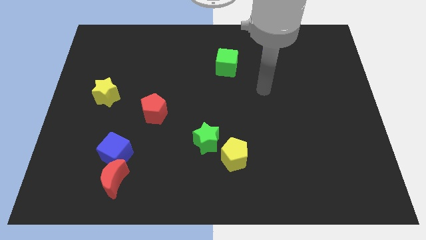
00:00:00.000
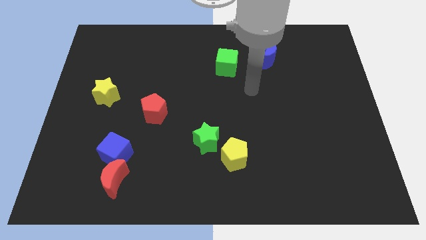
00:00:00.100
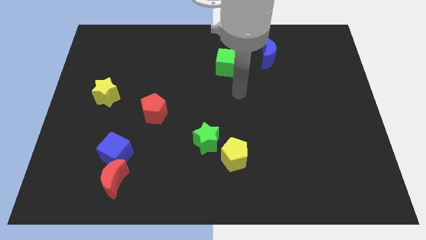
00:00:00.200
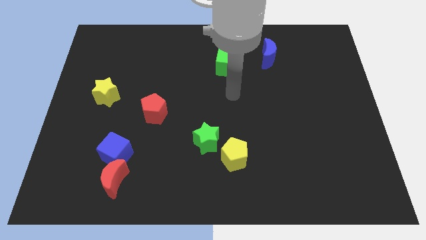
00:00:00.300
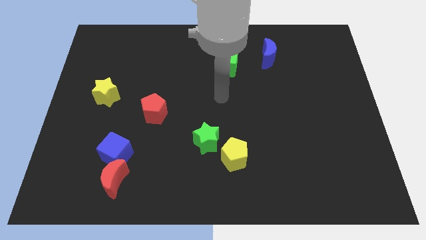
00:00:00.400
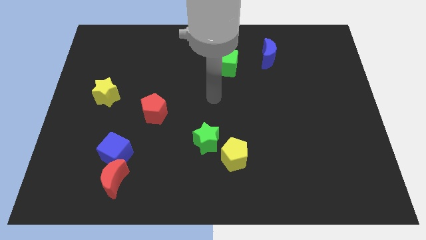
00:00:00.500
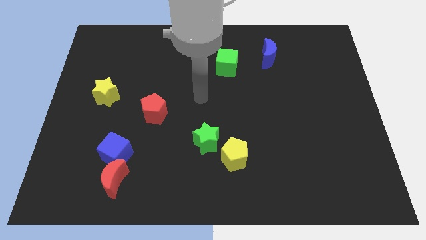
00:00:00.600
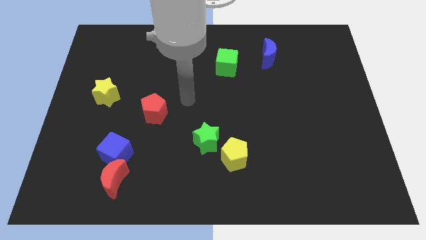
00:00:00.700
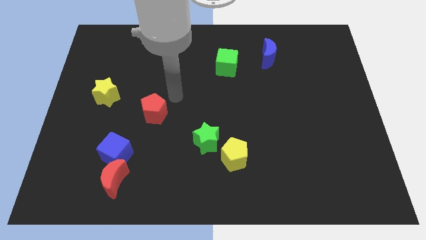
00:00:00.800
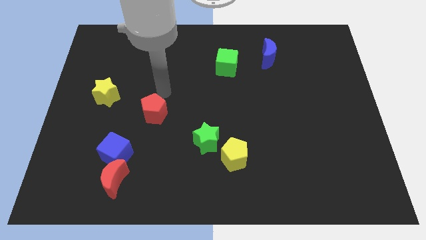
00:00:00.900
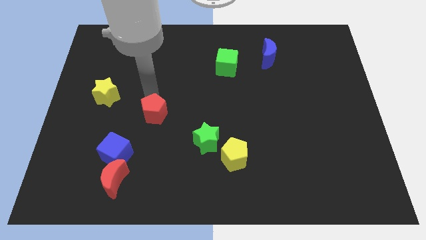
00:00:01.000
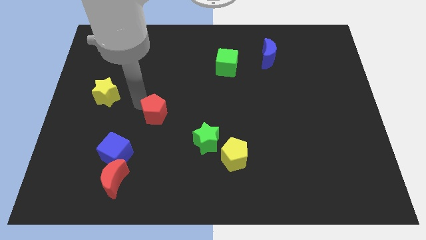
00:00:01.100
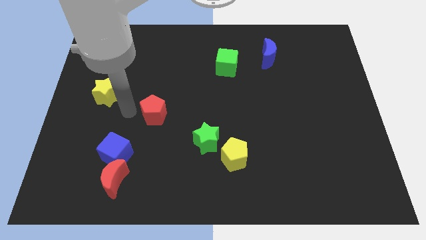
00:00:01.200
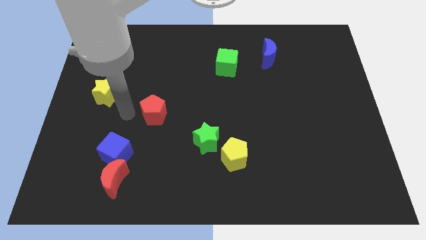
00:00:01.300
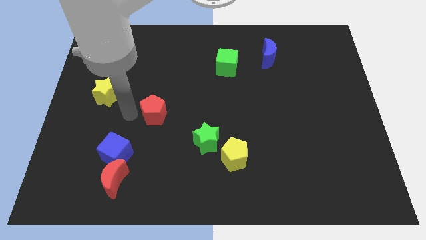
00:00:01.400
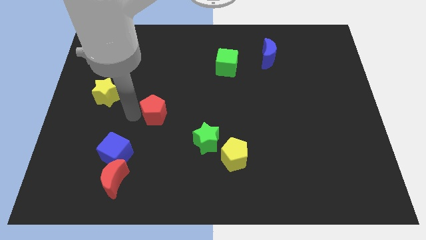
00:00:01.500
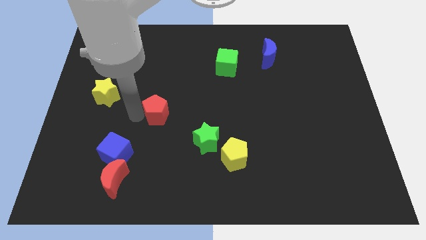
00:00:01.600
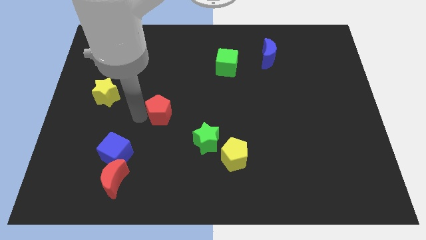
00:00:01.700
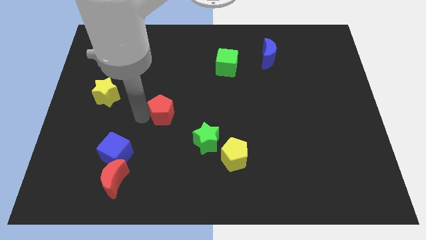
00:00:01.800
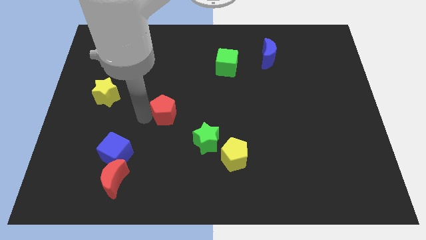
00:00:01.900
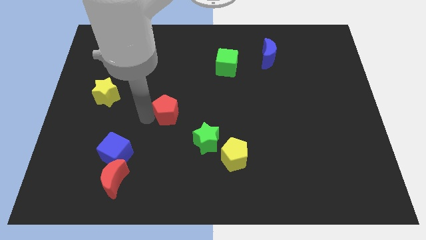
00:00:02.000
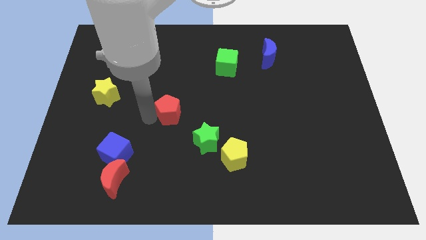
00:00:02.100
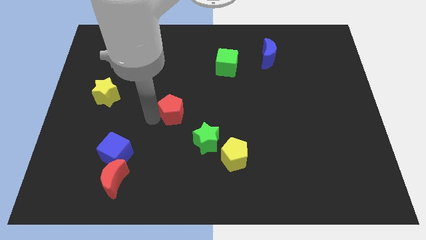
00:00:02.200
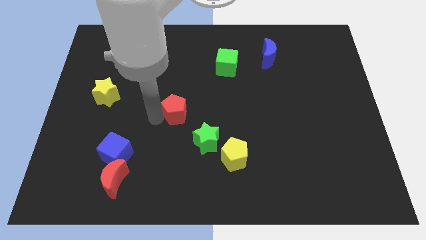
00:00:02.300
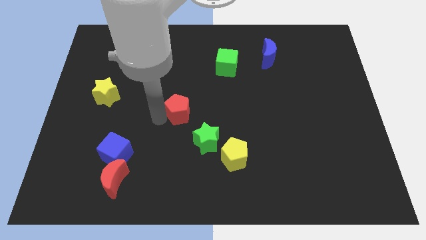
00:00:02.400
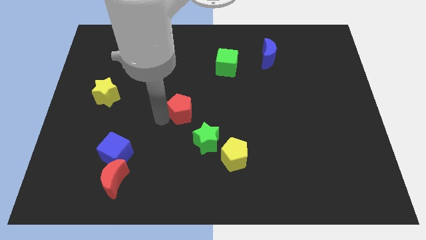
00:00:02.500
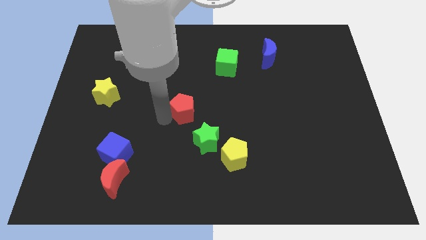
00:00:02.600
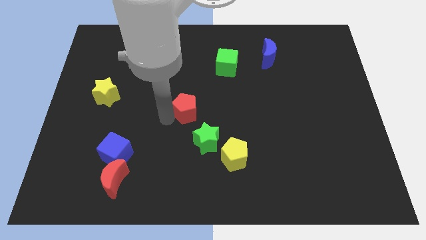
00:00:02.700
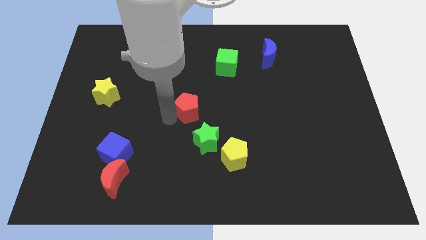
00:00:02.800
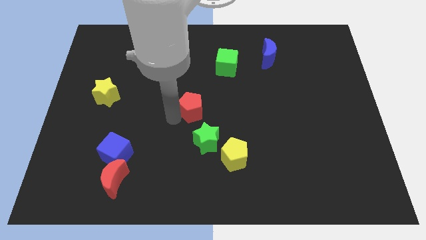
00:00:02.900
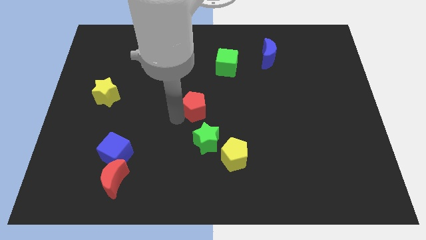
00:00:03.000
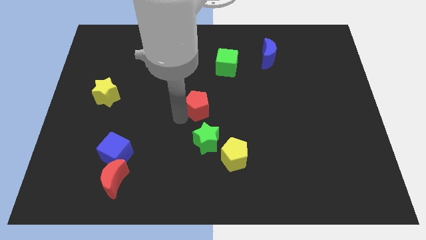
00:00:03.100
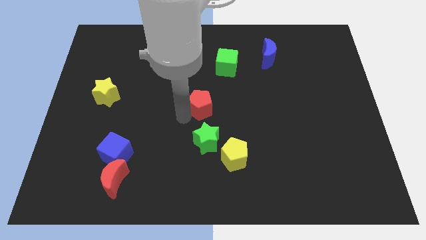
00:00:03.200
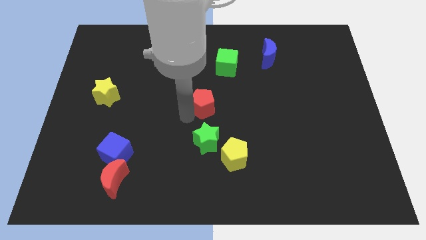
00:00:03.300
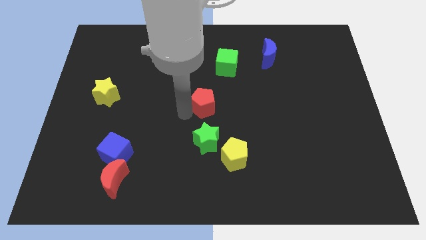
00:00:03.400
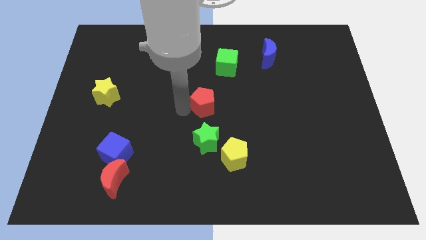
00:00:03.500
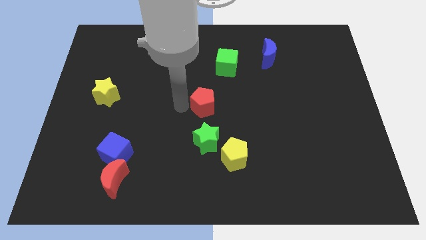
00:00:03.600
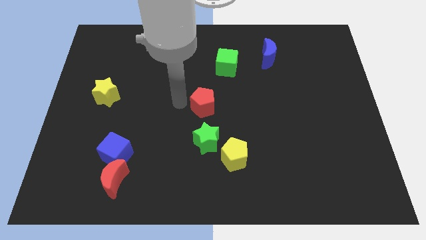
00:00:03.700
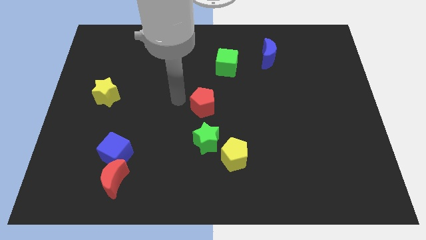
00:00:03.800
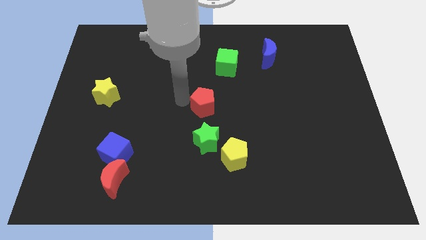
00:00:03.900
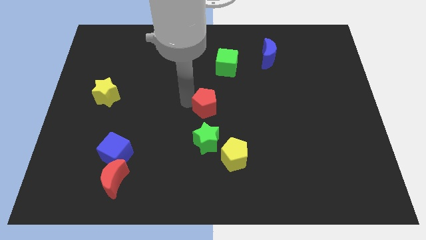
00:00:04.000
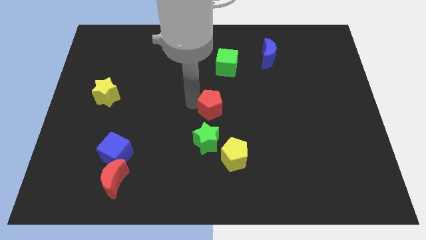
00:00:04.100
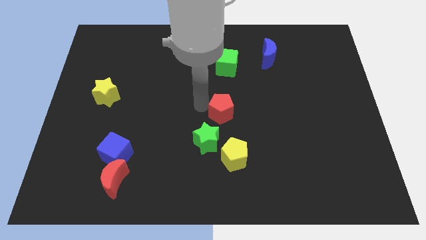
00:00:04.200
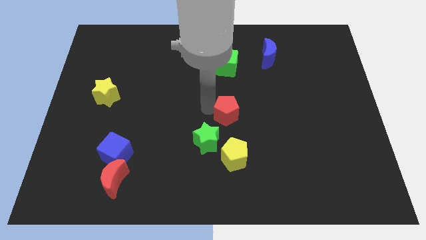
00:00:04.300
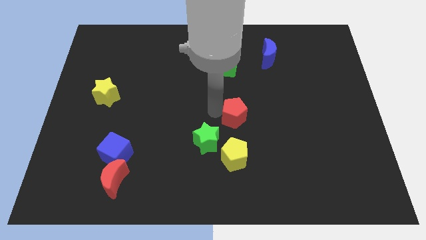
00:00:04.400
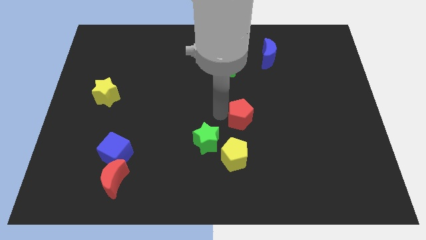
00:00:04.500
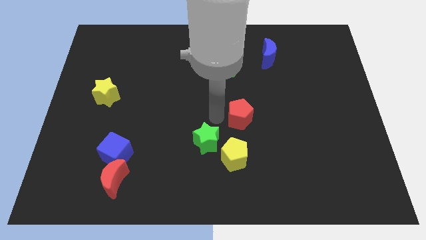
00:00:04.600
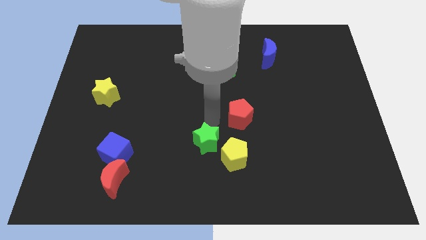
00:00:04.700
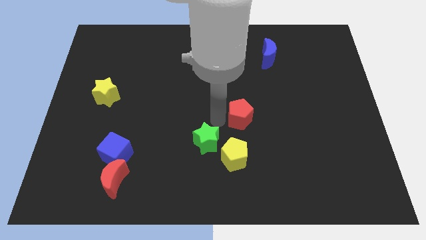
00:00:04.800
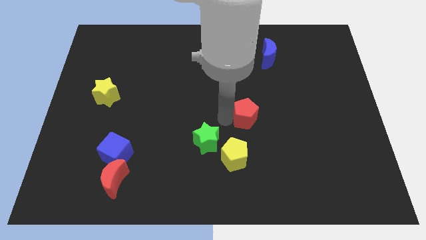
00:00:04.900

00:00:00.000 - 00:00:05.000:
slide the red pentagon to the right

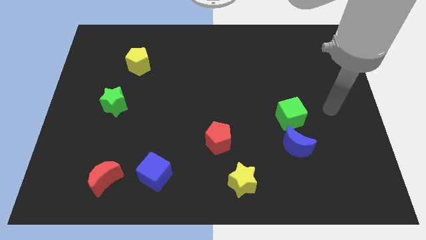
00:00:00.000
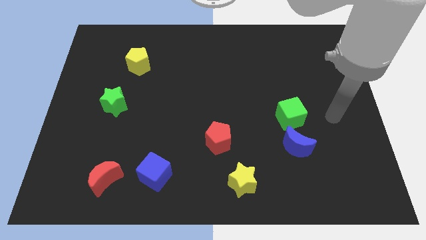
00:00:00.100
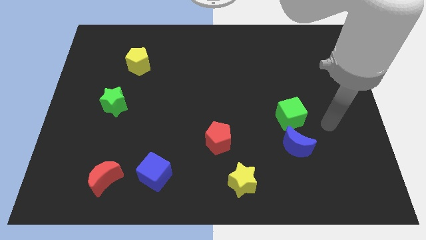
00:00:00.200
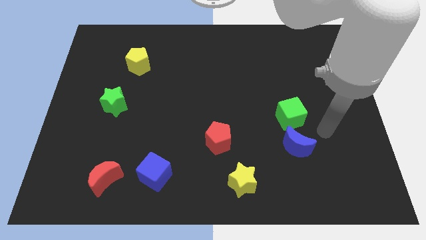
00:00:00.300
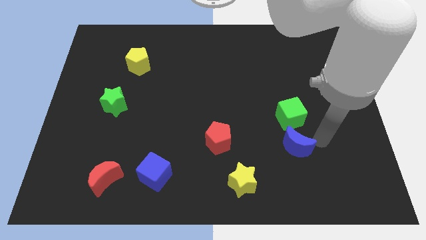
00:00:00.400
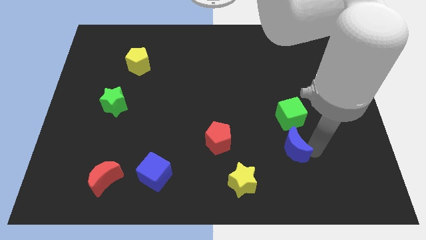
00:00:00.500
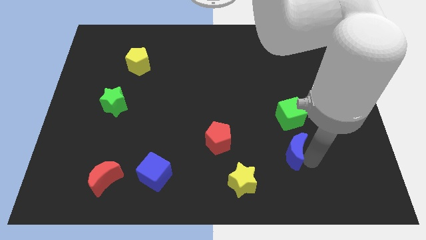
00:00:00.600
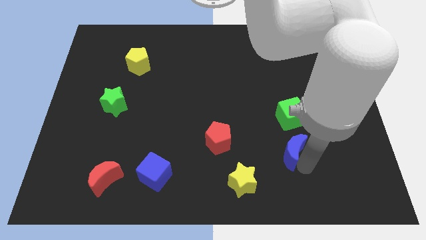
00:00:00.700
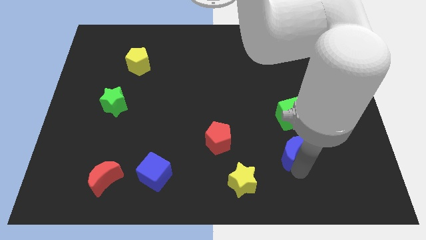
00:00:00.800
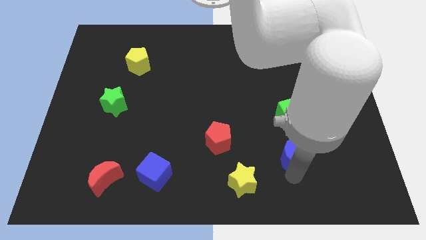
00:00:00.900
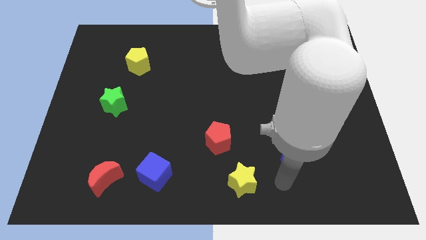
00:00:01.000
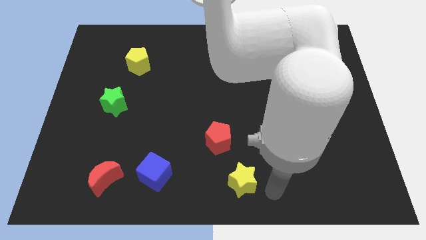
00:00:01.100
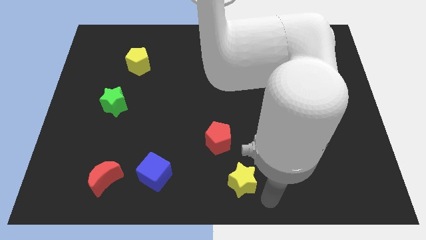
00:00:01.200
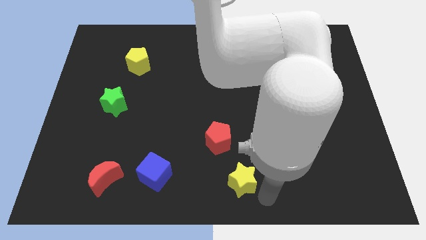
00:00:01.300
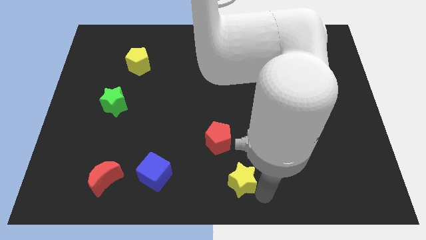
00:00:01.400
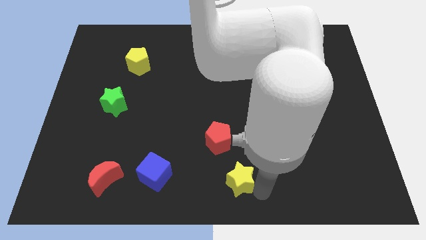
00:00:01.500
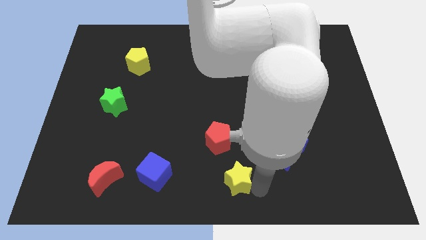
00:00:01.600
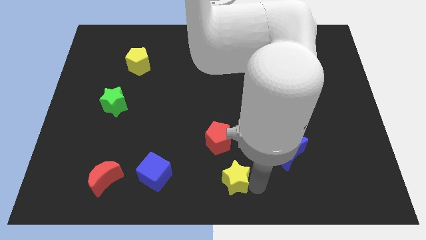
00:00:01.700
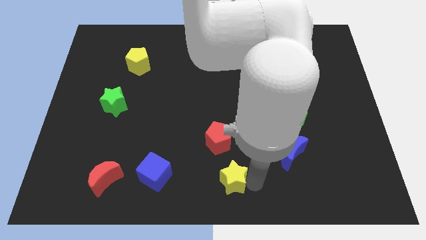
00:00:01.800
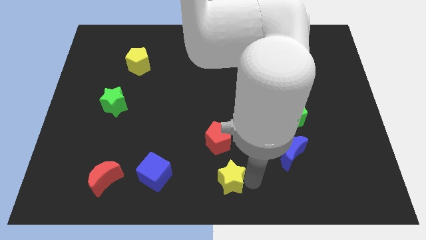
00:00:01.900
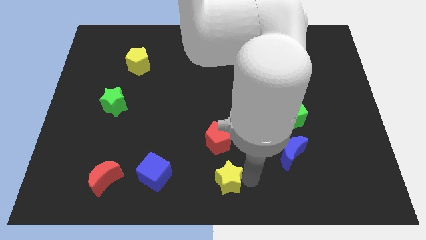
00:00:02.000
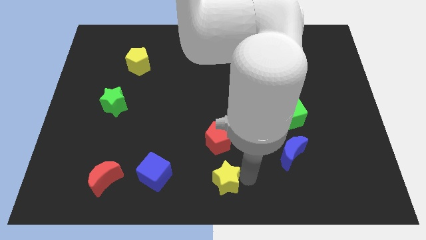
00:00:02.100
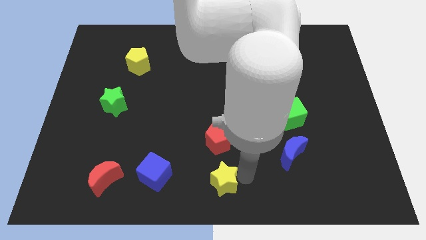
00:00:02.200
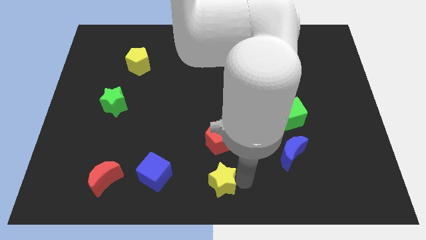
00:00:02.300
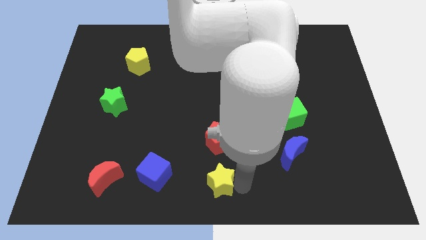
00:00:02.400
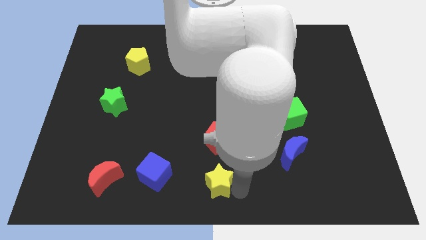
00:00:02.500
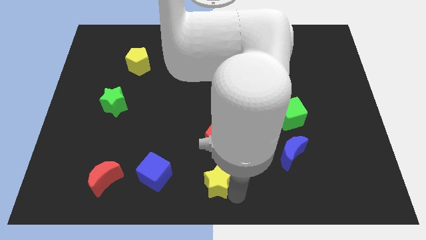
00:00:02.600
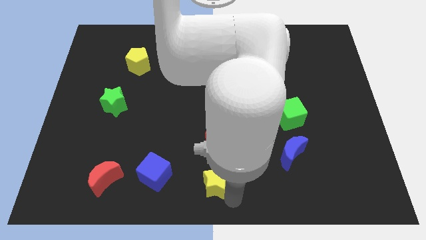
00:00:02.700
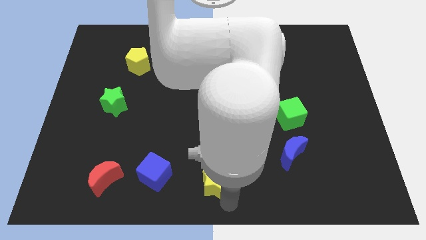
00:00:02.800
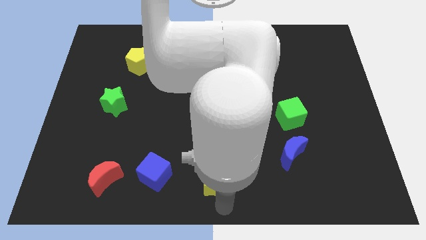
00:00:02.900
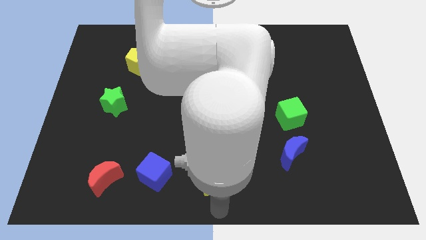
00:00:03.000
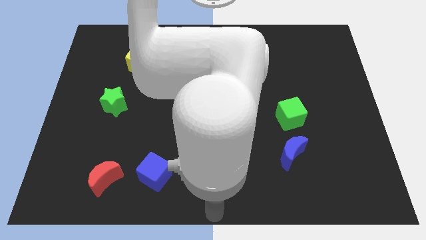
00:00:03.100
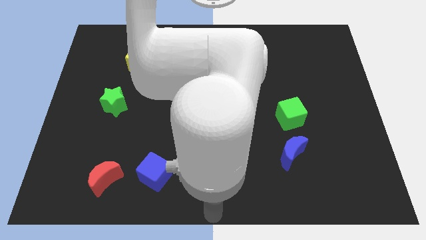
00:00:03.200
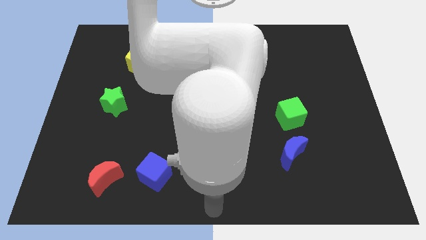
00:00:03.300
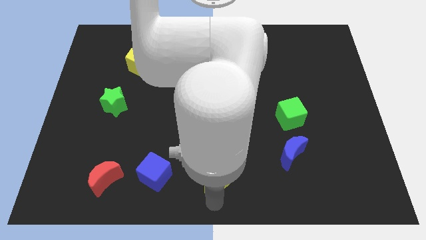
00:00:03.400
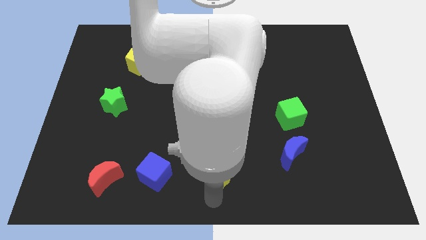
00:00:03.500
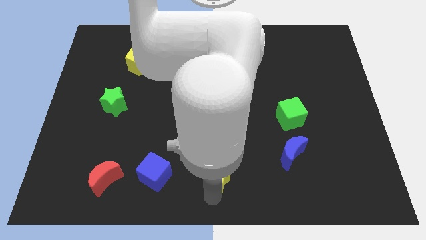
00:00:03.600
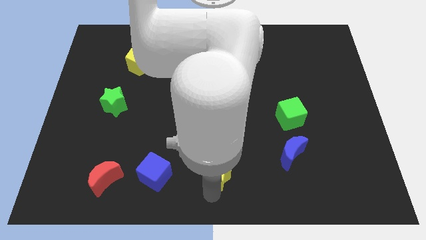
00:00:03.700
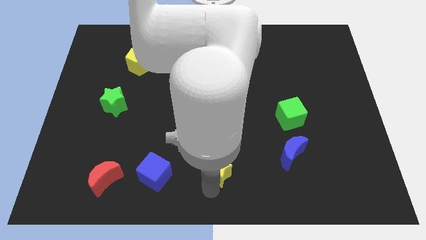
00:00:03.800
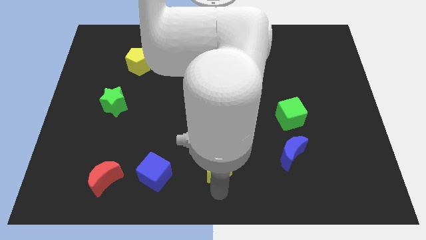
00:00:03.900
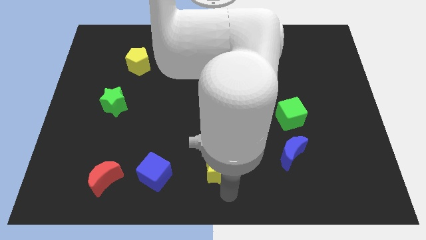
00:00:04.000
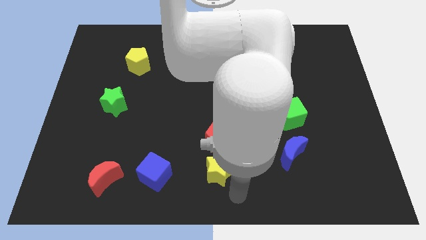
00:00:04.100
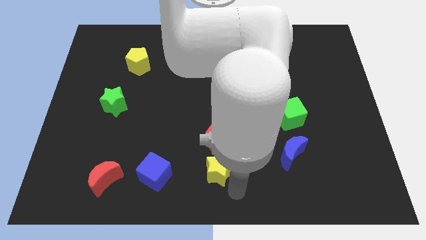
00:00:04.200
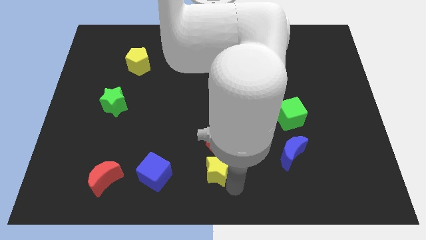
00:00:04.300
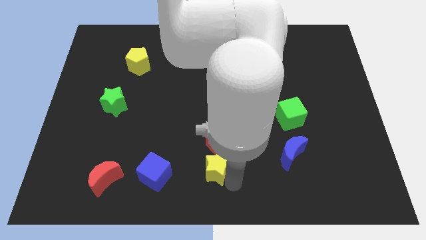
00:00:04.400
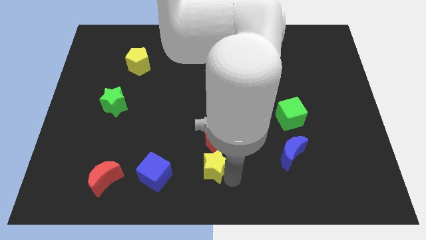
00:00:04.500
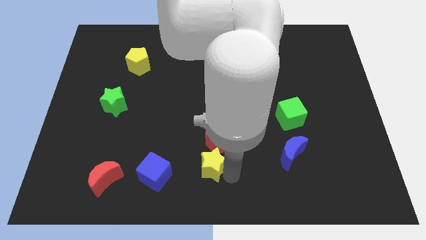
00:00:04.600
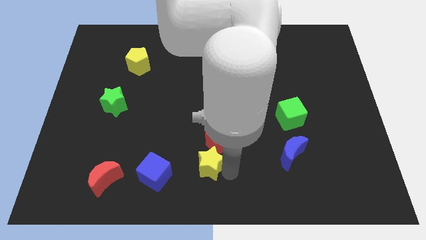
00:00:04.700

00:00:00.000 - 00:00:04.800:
slightly move the yellow star upwards and then left
